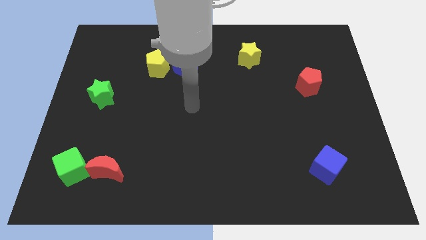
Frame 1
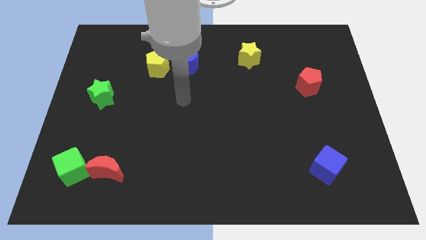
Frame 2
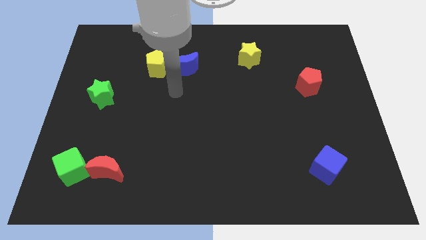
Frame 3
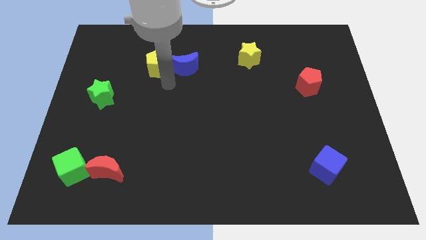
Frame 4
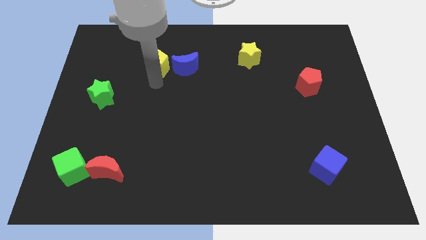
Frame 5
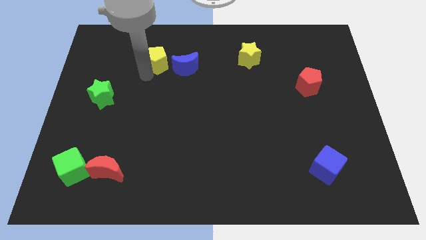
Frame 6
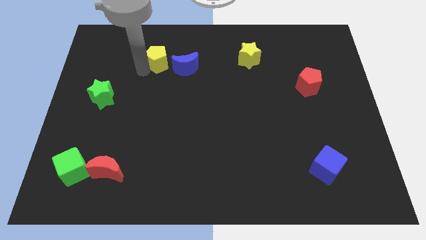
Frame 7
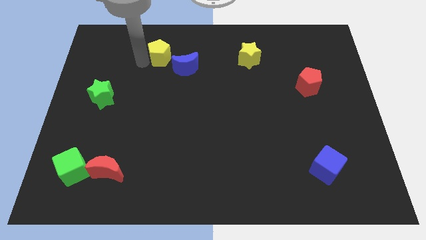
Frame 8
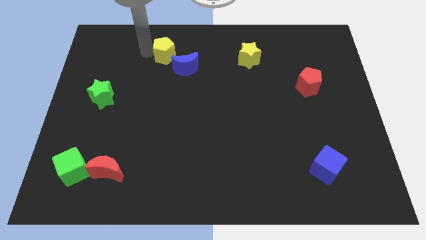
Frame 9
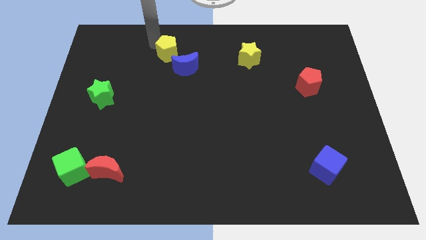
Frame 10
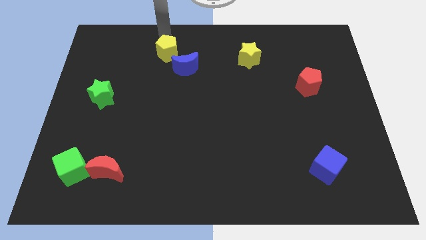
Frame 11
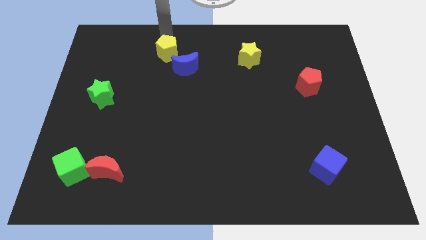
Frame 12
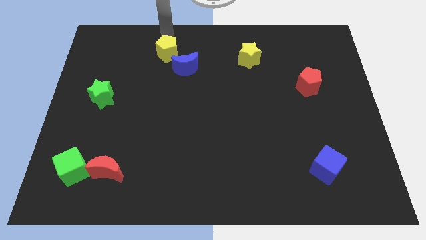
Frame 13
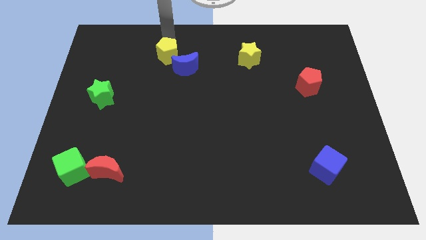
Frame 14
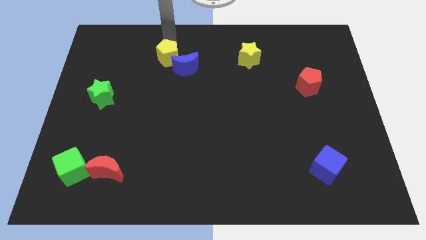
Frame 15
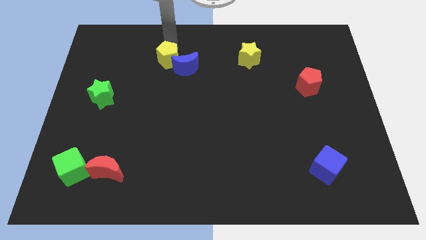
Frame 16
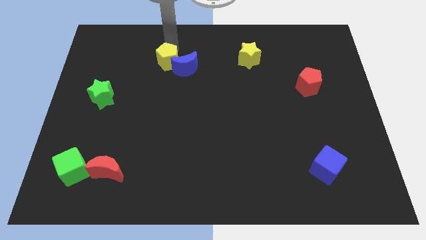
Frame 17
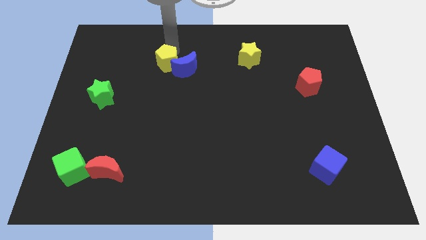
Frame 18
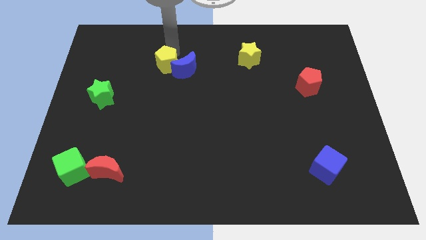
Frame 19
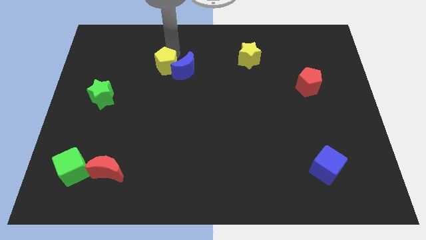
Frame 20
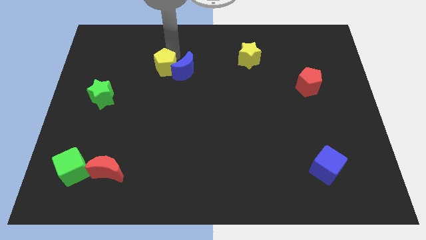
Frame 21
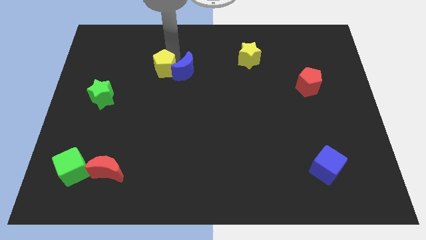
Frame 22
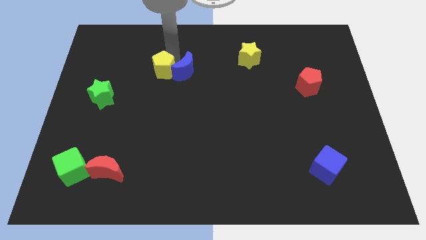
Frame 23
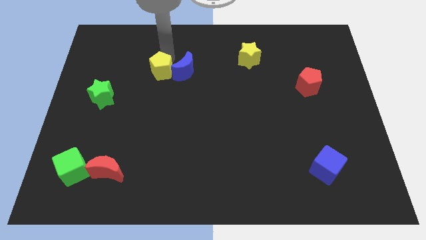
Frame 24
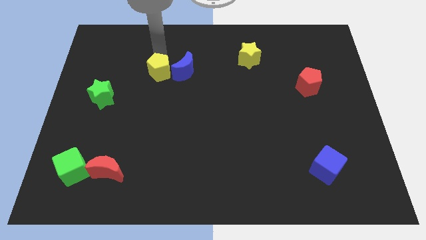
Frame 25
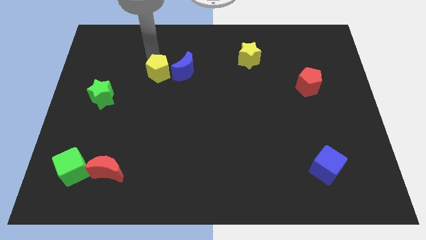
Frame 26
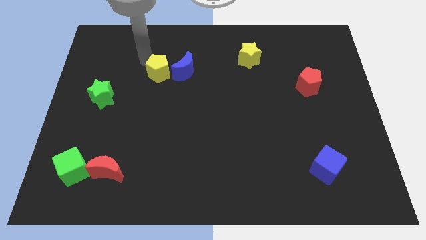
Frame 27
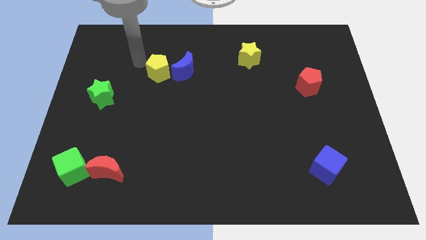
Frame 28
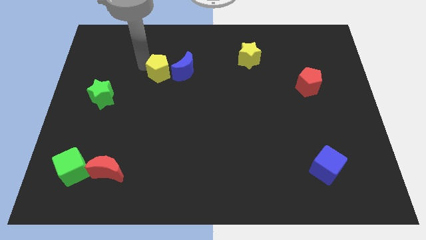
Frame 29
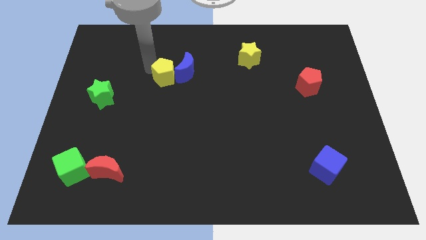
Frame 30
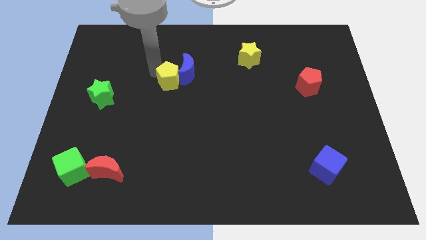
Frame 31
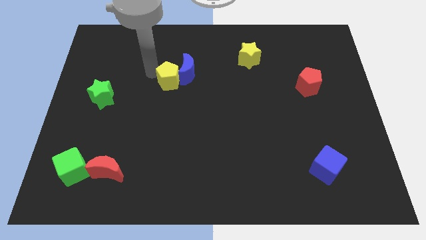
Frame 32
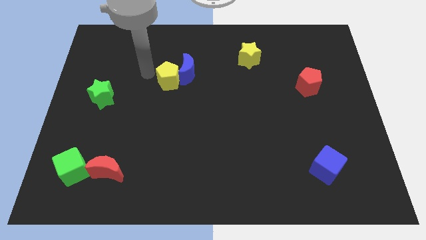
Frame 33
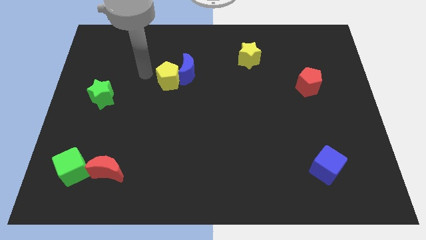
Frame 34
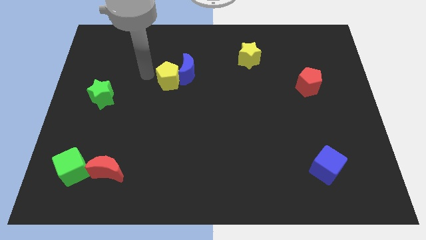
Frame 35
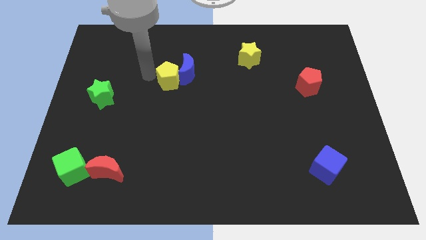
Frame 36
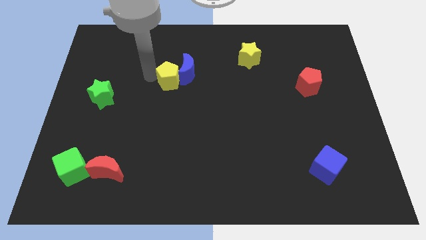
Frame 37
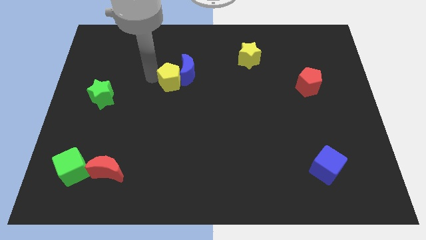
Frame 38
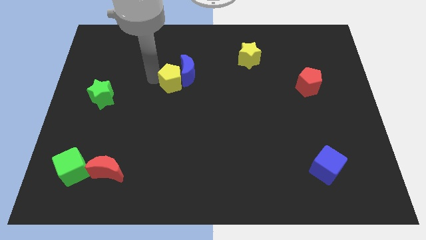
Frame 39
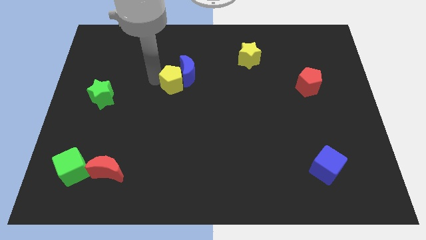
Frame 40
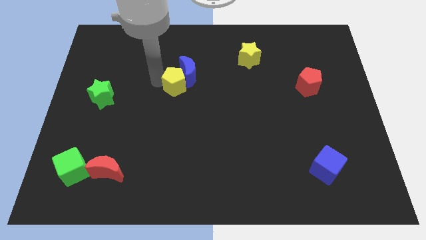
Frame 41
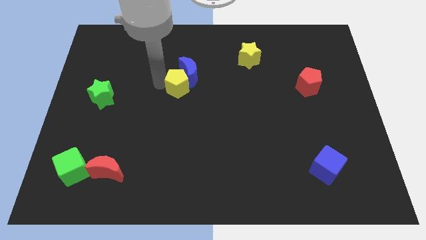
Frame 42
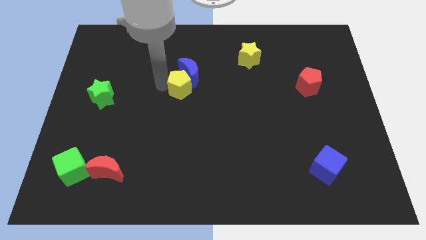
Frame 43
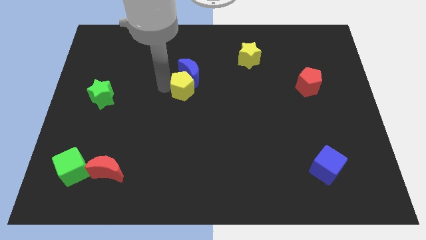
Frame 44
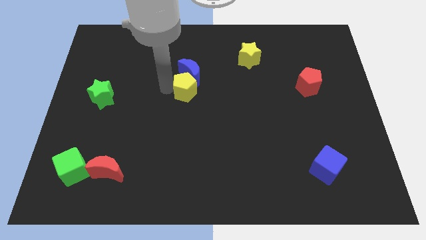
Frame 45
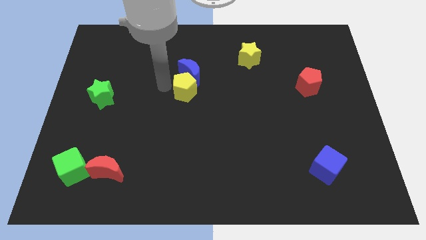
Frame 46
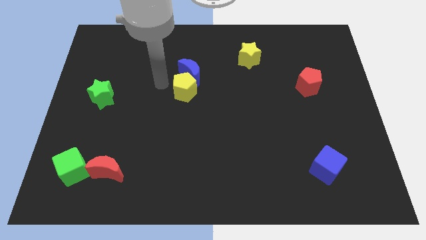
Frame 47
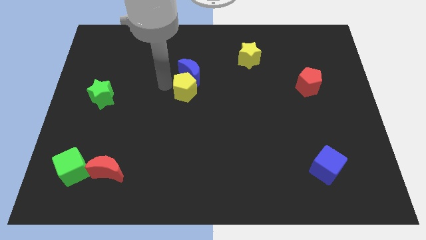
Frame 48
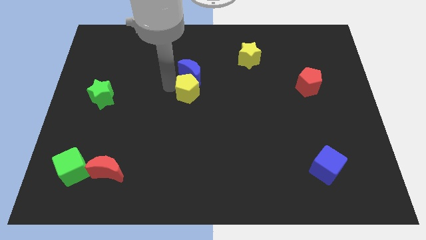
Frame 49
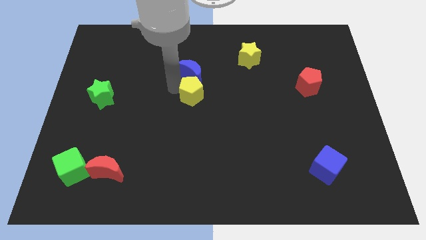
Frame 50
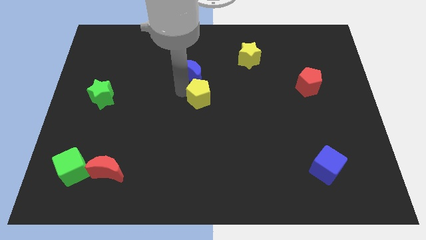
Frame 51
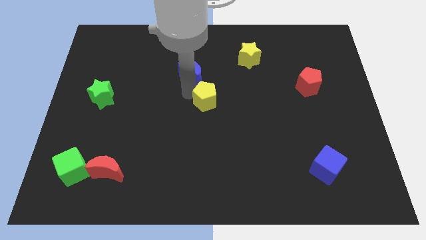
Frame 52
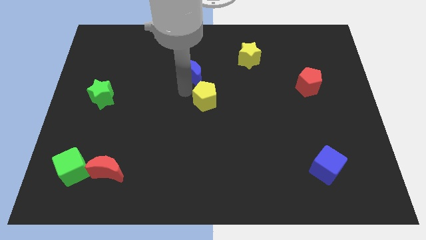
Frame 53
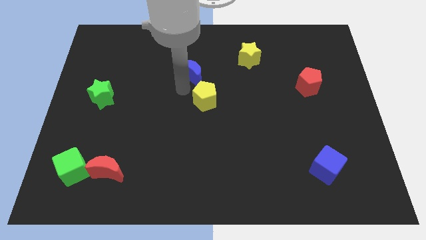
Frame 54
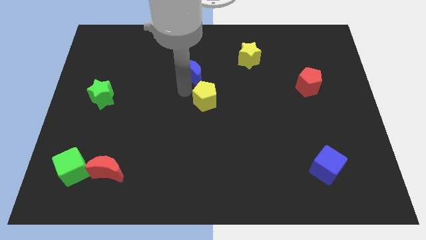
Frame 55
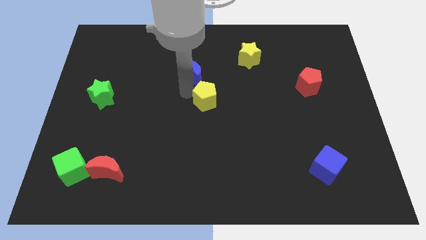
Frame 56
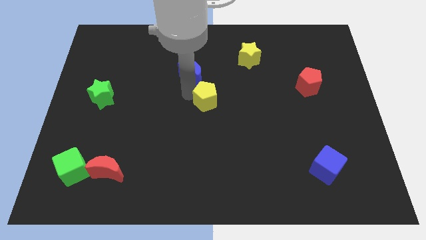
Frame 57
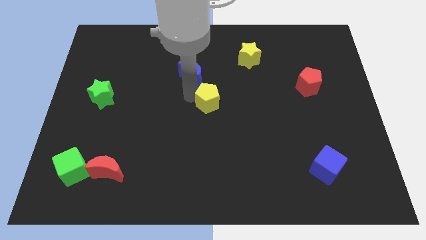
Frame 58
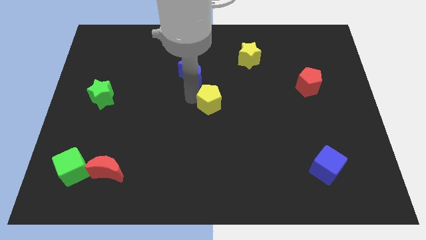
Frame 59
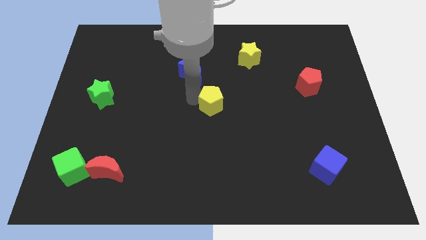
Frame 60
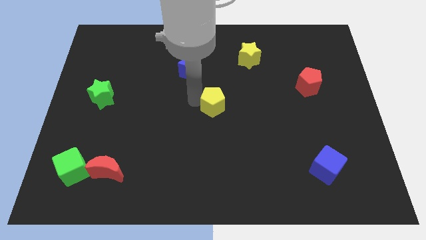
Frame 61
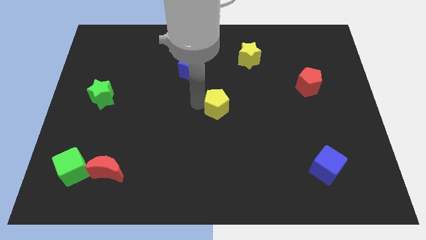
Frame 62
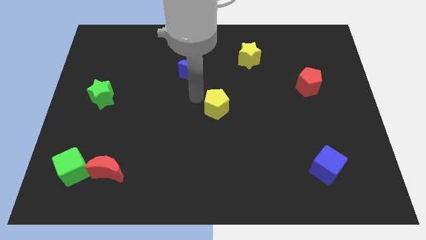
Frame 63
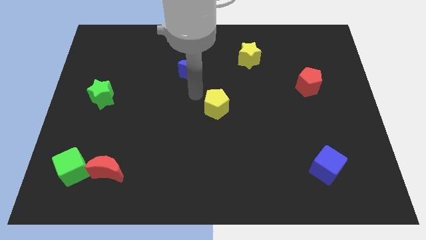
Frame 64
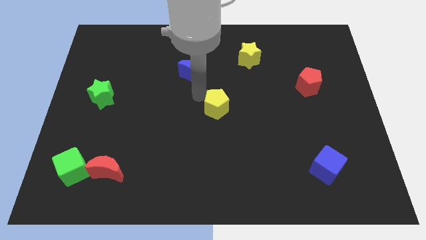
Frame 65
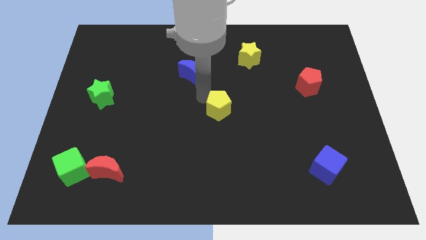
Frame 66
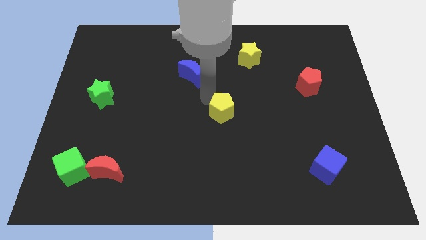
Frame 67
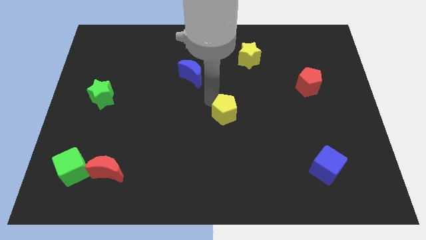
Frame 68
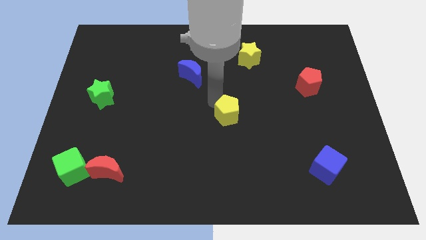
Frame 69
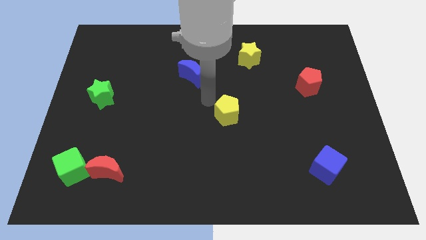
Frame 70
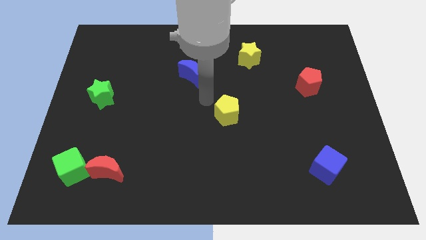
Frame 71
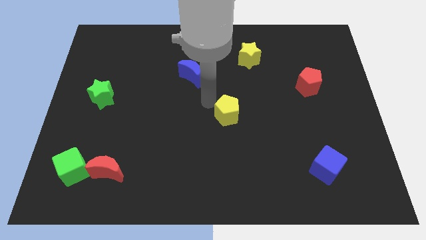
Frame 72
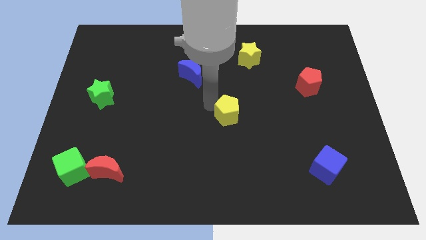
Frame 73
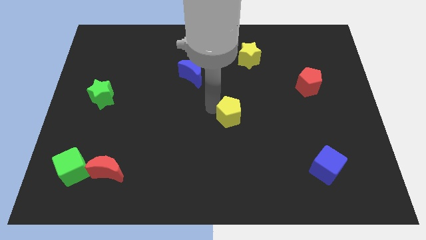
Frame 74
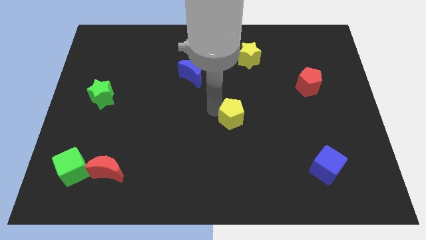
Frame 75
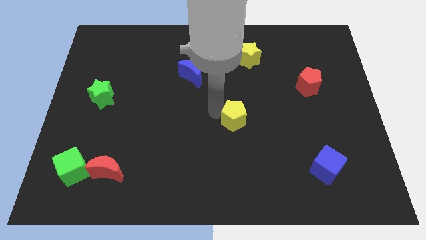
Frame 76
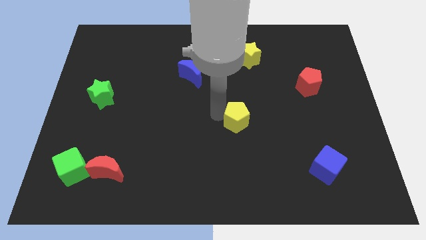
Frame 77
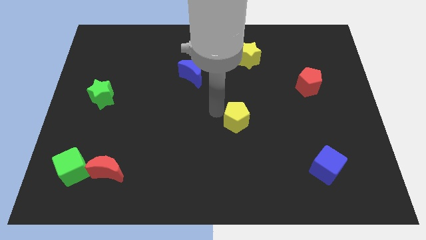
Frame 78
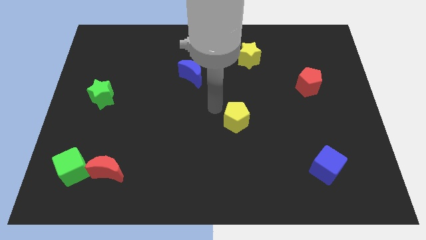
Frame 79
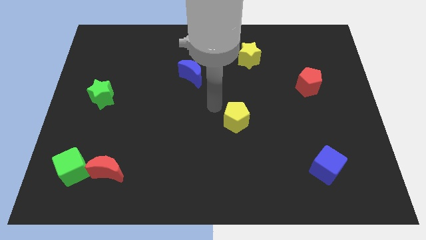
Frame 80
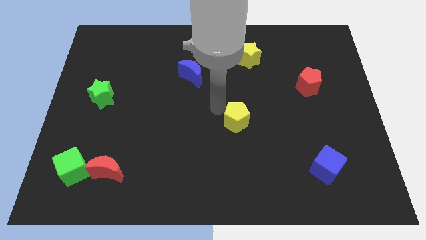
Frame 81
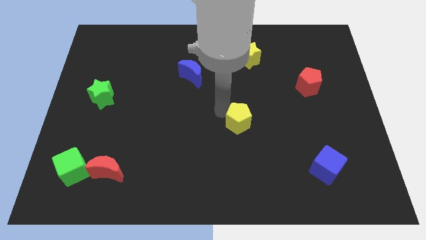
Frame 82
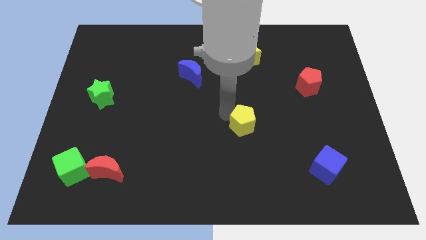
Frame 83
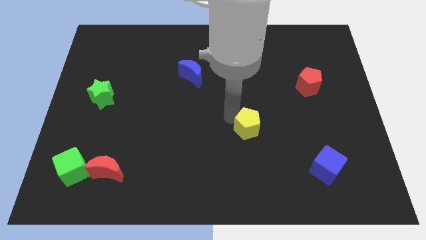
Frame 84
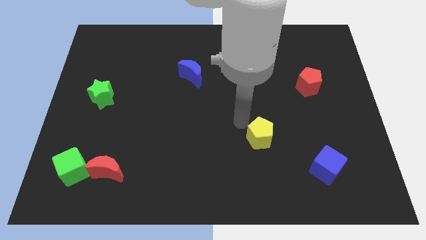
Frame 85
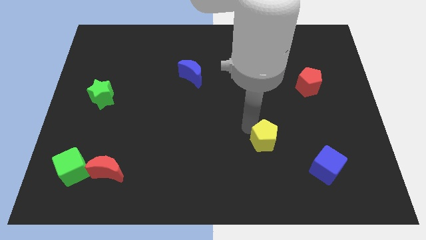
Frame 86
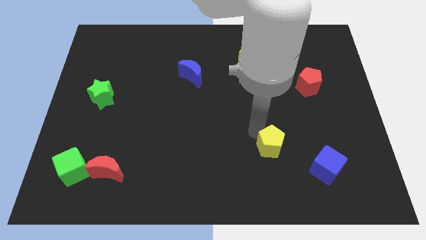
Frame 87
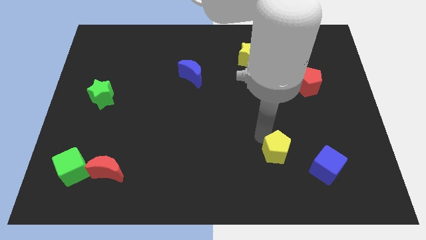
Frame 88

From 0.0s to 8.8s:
put the yellow pentagon just left of the blue cube
